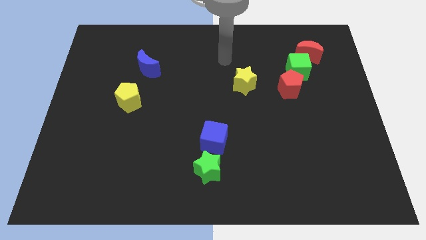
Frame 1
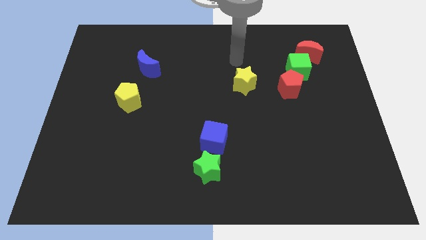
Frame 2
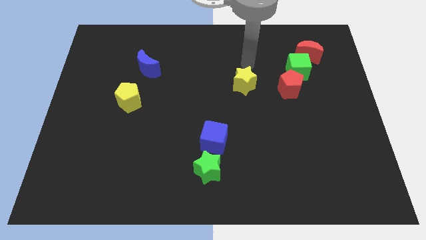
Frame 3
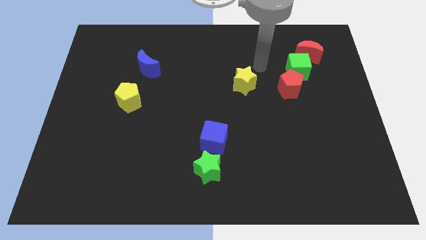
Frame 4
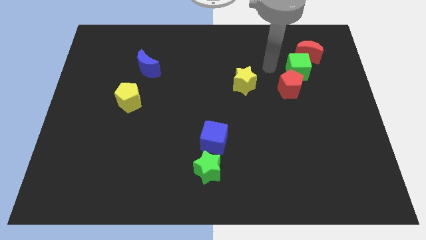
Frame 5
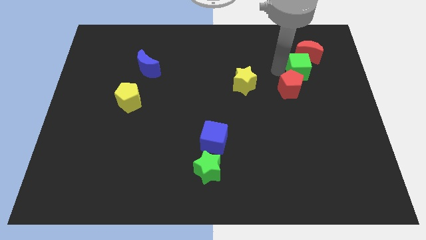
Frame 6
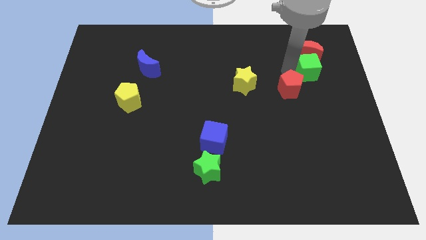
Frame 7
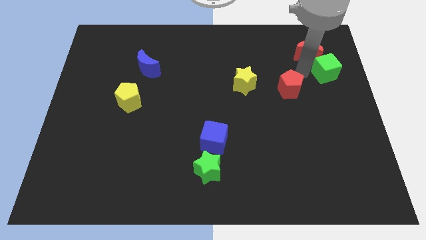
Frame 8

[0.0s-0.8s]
pull the red pentagon apart from the green cube

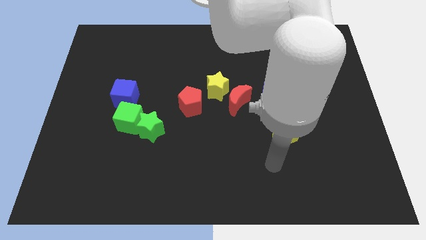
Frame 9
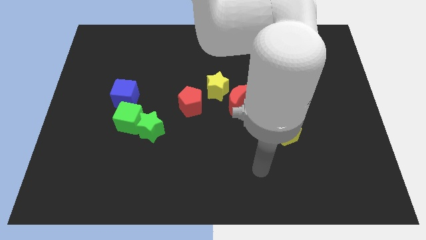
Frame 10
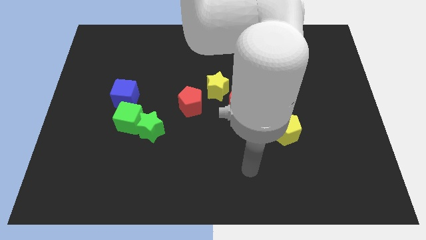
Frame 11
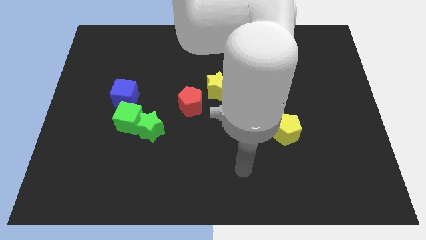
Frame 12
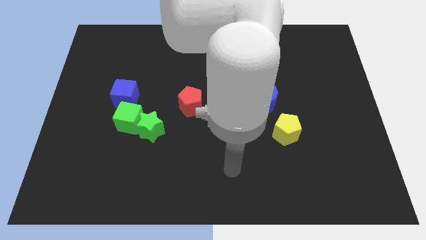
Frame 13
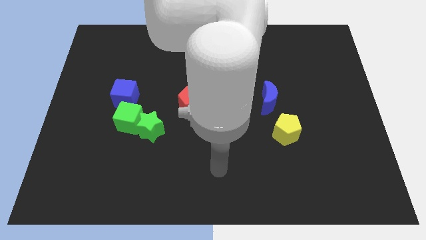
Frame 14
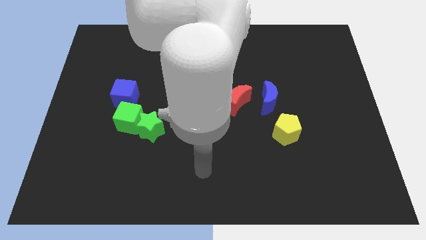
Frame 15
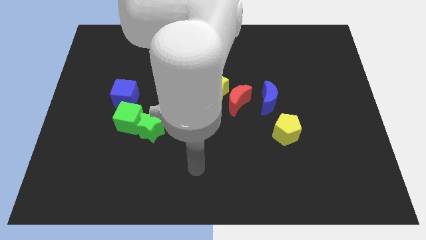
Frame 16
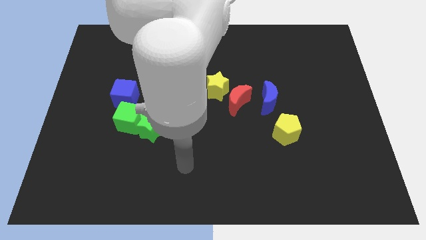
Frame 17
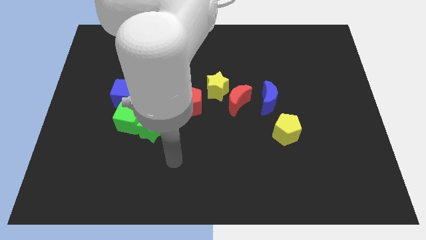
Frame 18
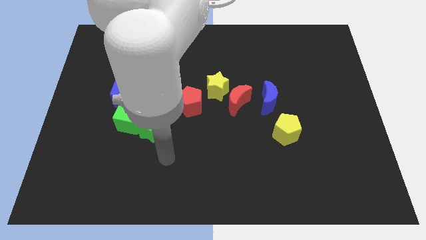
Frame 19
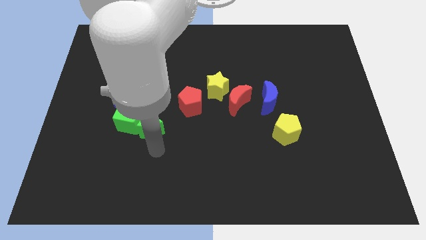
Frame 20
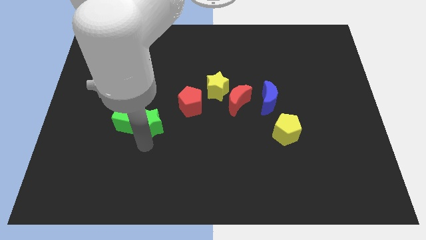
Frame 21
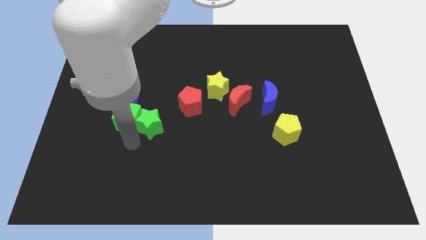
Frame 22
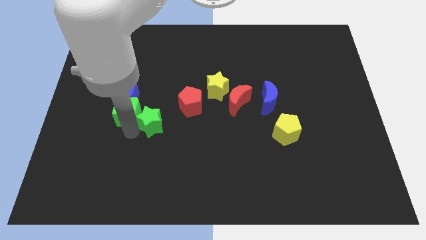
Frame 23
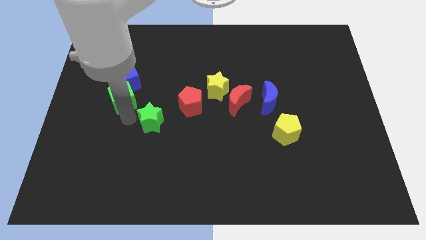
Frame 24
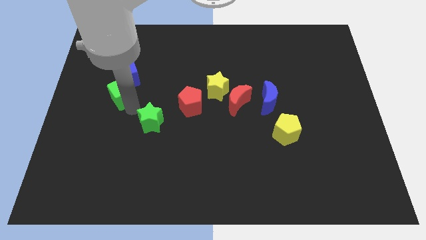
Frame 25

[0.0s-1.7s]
move the green star away from the green cube

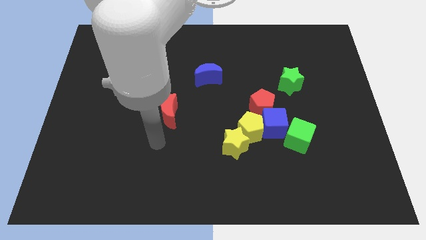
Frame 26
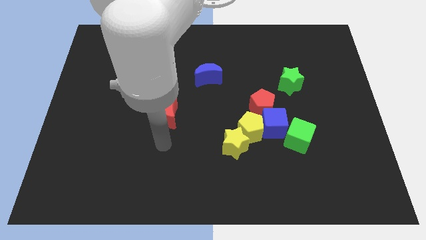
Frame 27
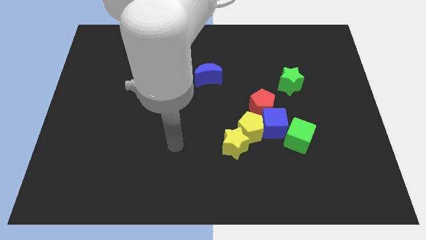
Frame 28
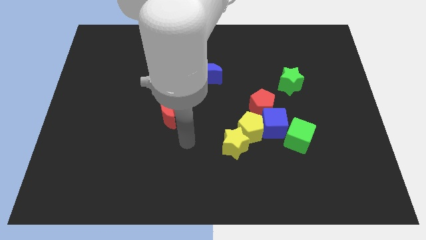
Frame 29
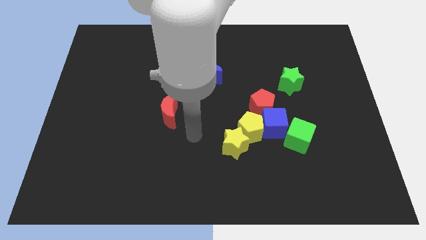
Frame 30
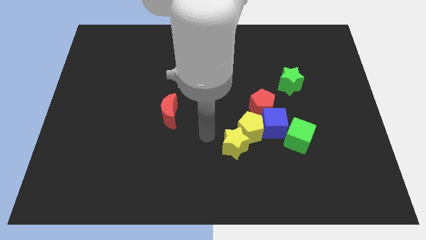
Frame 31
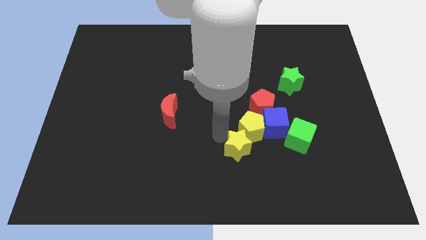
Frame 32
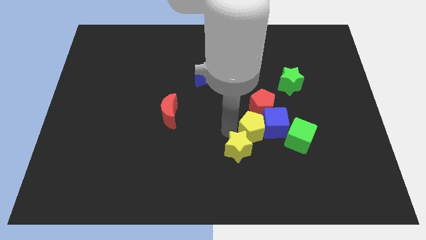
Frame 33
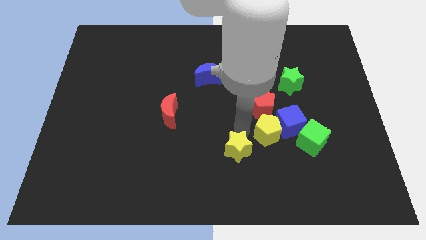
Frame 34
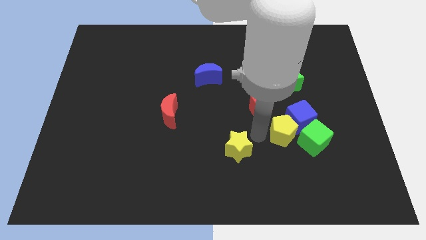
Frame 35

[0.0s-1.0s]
move the yellow star away from the yellow pentagon

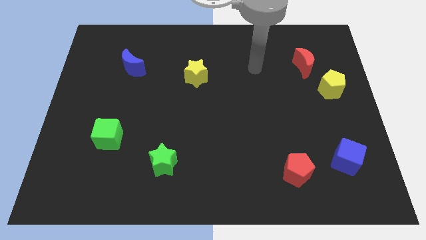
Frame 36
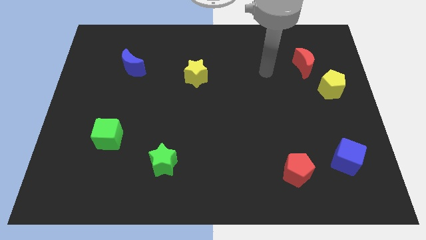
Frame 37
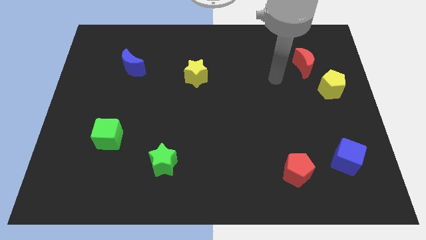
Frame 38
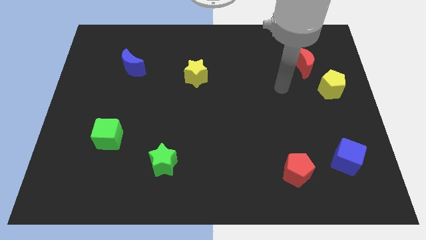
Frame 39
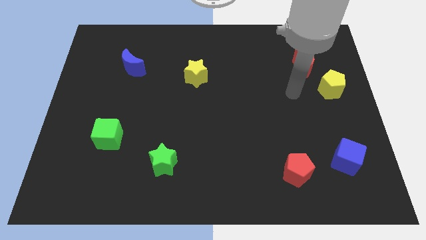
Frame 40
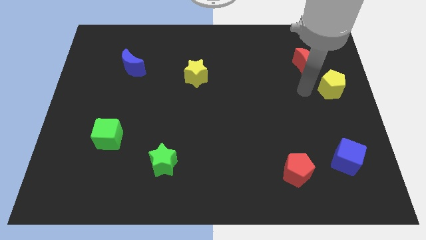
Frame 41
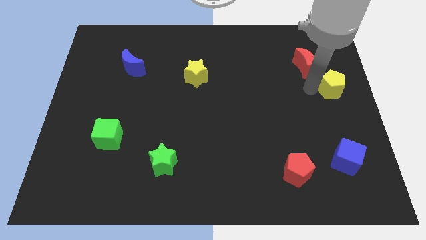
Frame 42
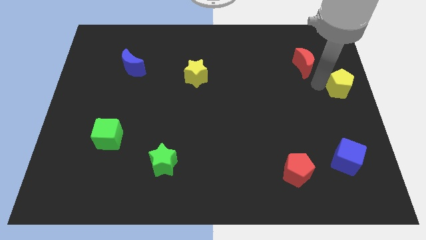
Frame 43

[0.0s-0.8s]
pull the red moon apart from the yellow pentagon

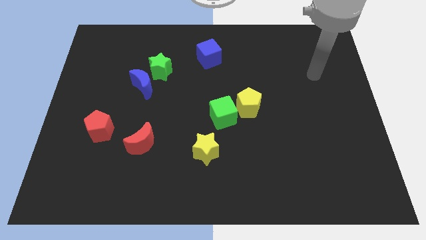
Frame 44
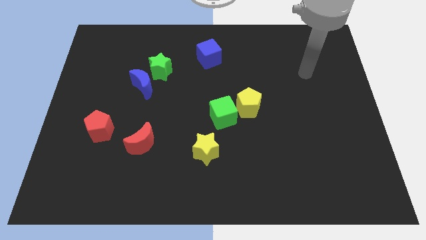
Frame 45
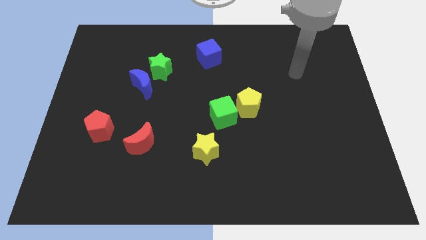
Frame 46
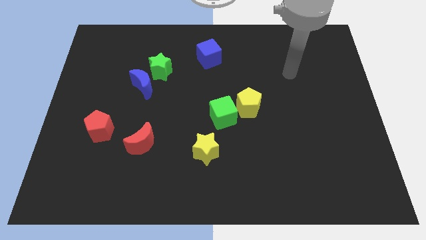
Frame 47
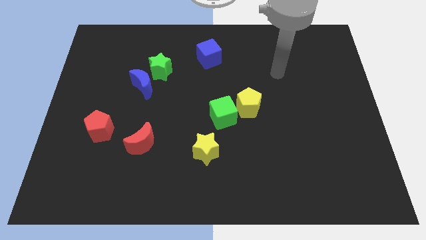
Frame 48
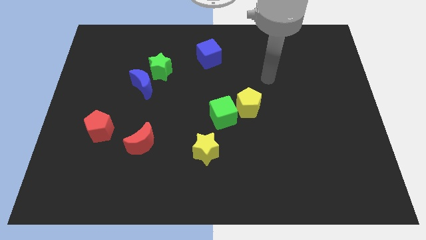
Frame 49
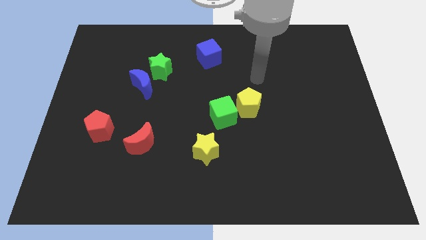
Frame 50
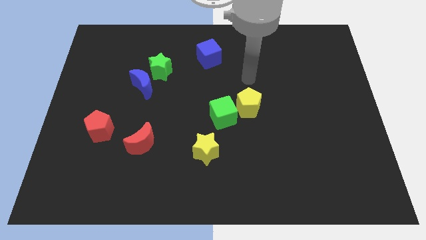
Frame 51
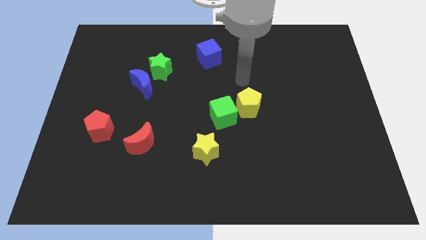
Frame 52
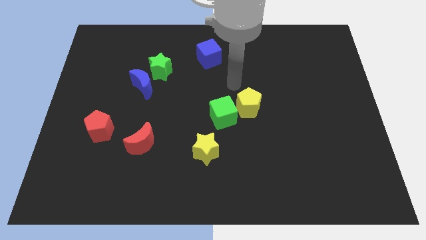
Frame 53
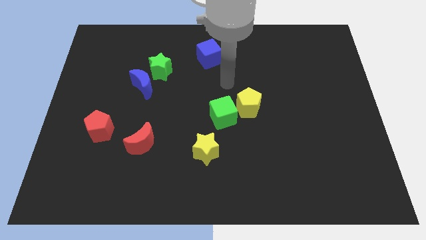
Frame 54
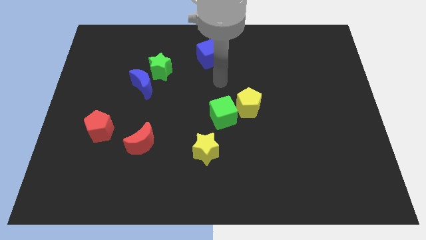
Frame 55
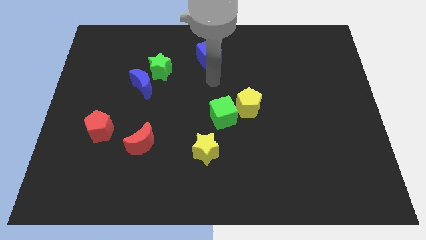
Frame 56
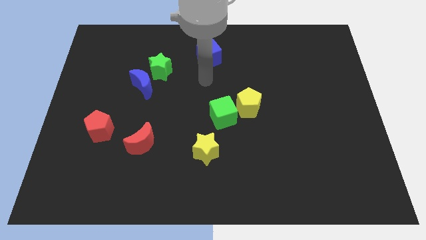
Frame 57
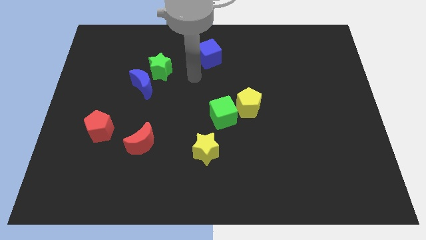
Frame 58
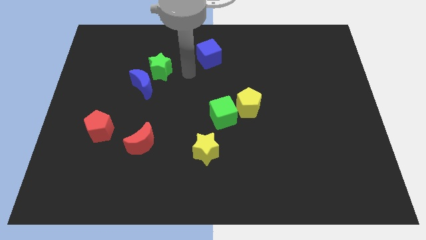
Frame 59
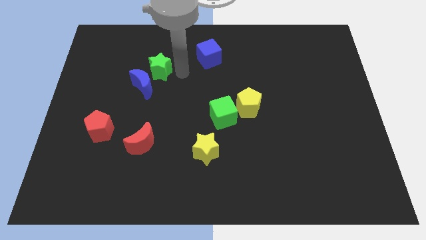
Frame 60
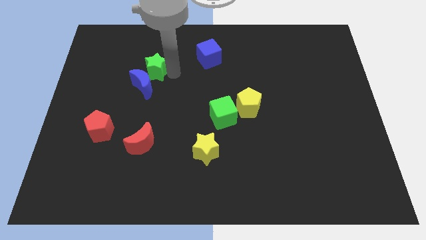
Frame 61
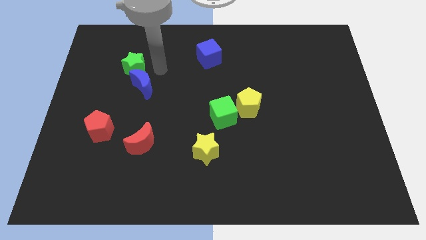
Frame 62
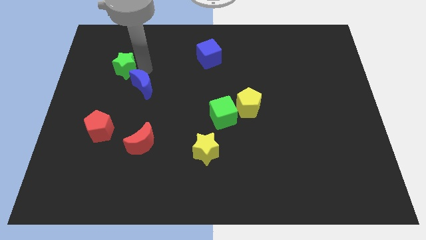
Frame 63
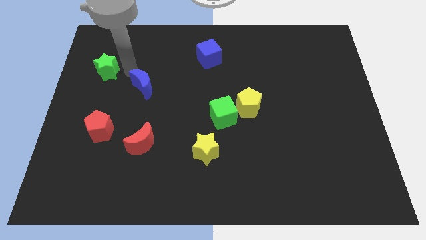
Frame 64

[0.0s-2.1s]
move the blue moon away from the green star

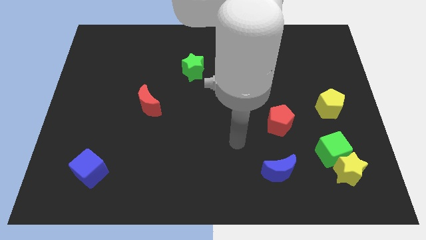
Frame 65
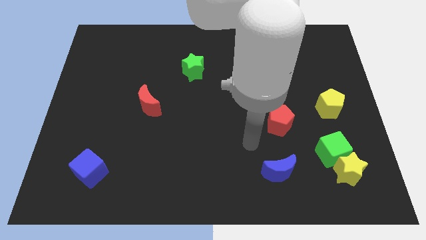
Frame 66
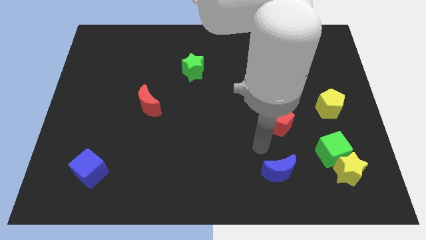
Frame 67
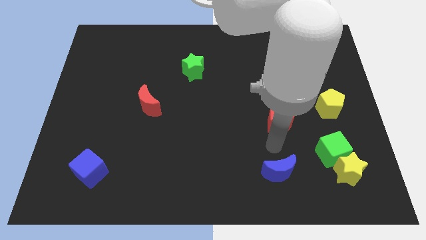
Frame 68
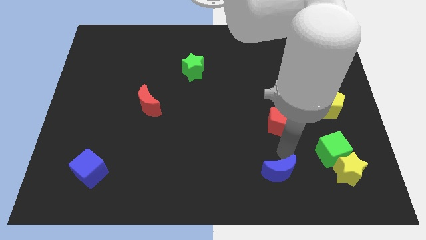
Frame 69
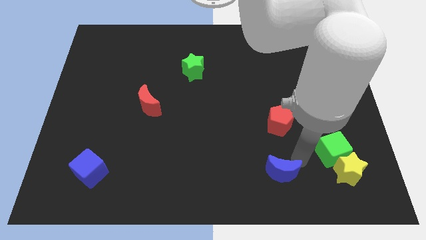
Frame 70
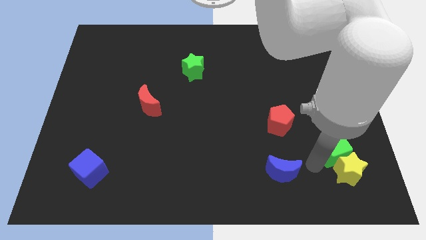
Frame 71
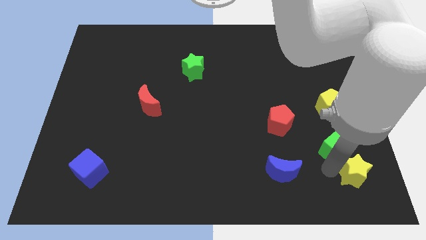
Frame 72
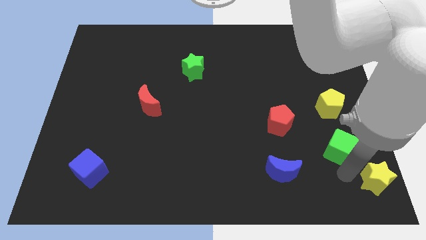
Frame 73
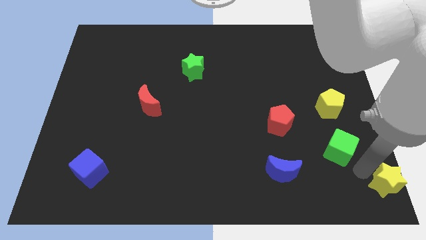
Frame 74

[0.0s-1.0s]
pull the green cube apart from the yellow star

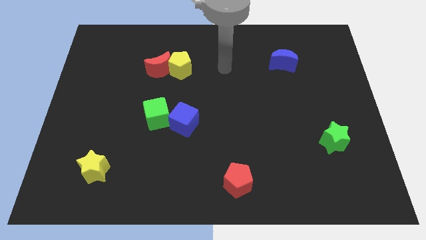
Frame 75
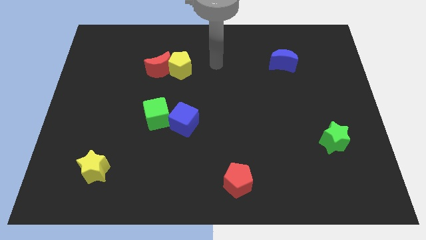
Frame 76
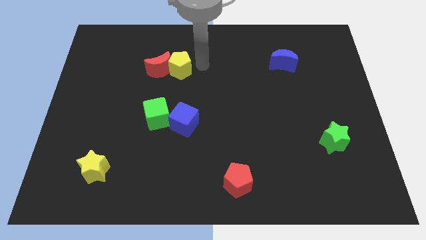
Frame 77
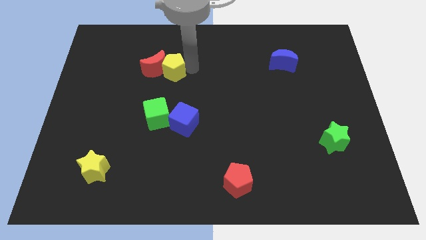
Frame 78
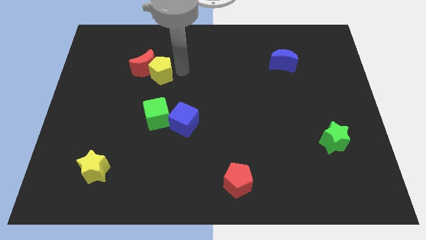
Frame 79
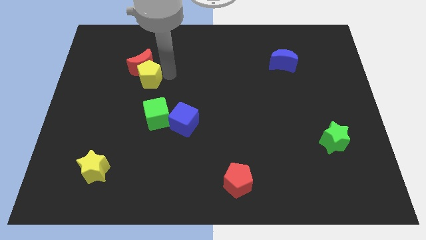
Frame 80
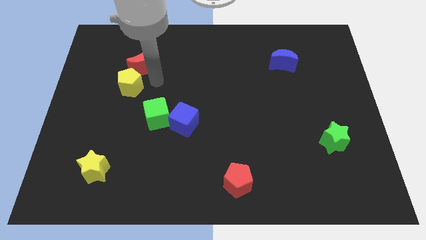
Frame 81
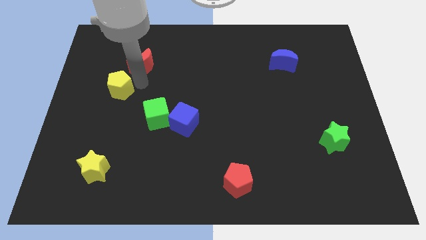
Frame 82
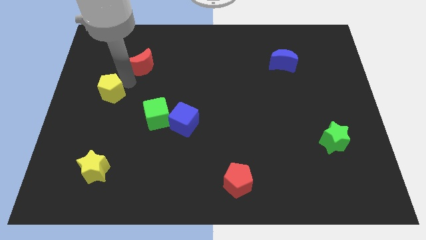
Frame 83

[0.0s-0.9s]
separate the red moon from the yellow pentagon

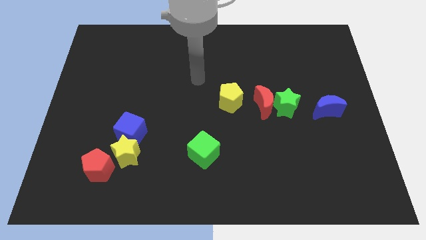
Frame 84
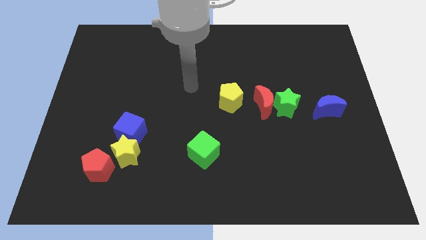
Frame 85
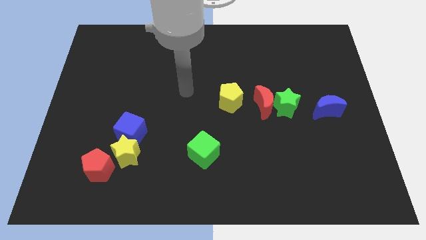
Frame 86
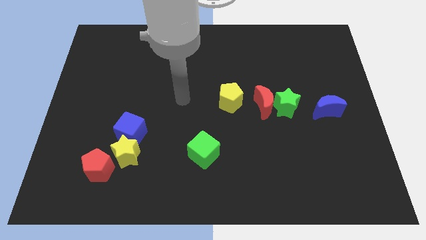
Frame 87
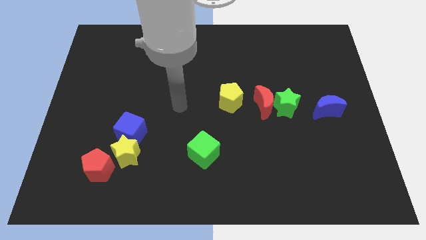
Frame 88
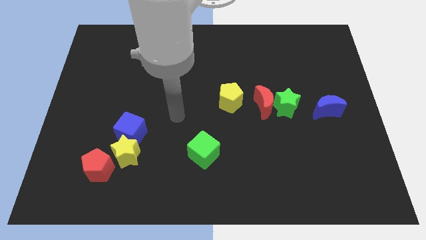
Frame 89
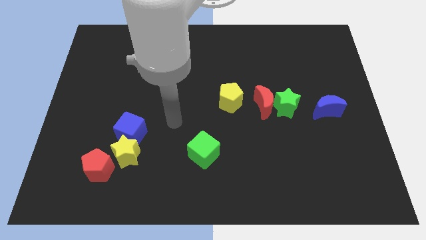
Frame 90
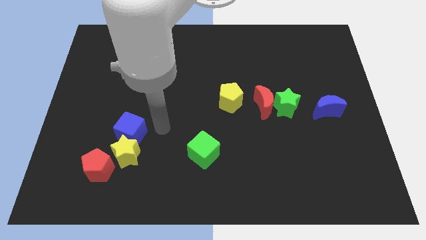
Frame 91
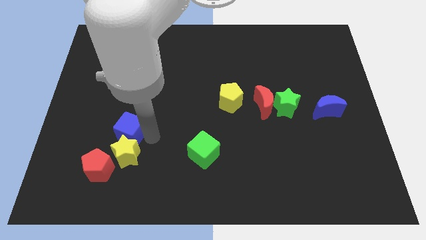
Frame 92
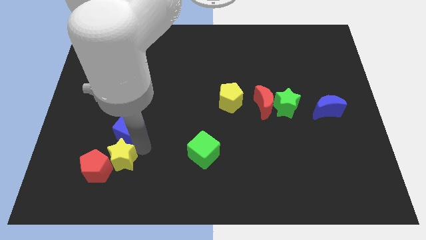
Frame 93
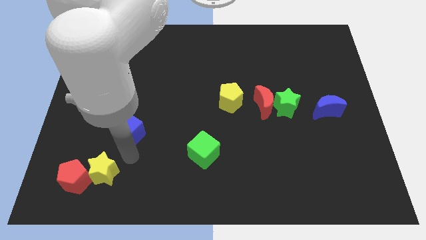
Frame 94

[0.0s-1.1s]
move the blue cube away from the yellow star
